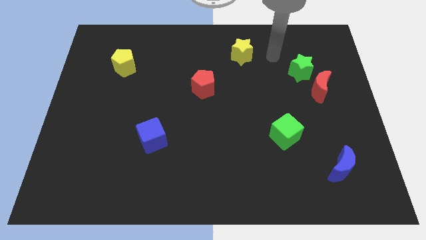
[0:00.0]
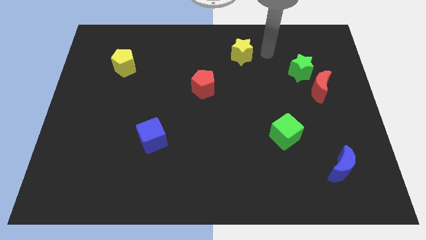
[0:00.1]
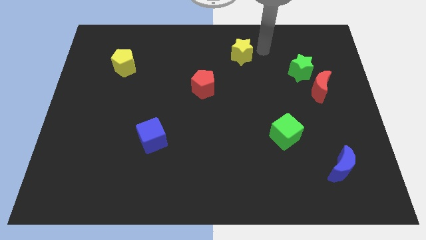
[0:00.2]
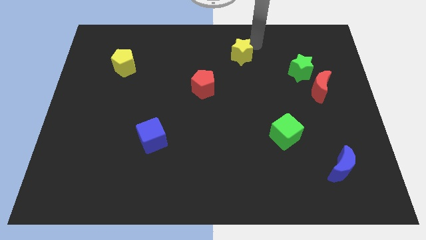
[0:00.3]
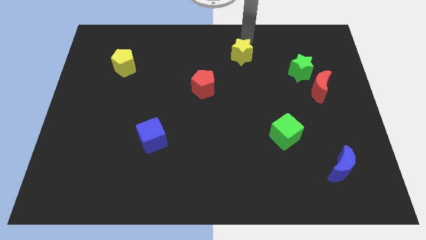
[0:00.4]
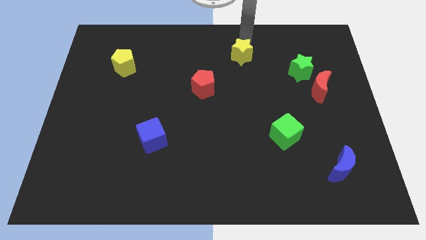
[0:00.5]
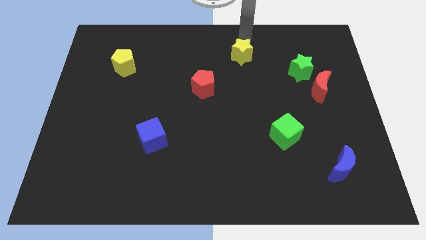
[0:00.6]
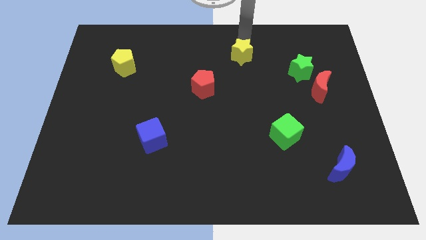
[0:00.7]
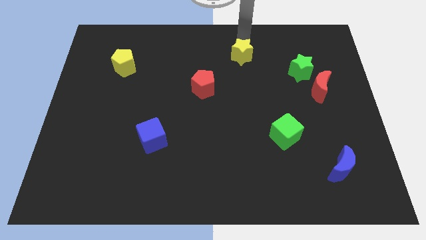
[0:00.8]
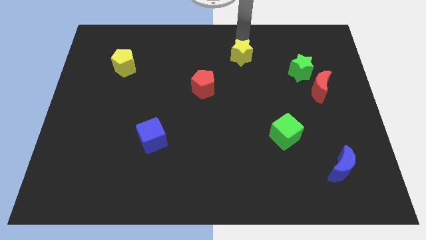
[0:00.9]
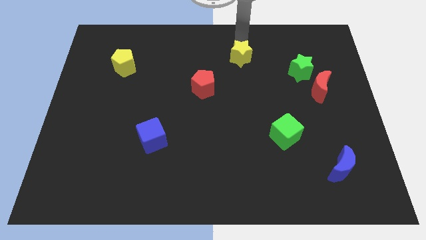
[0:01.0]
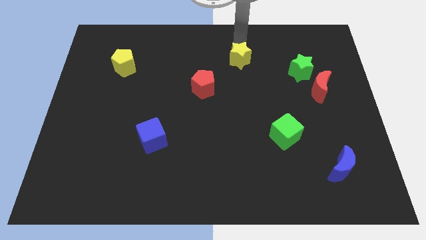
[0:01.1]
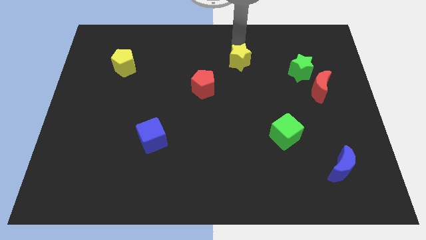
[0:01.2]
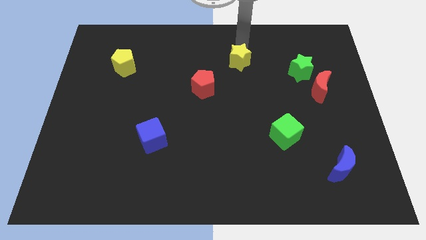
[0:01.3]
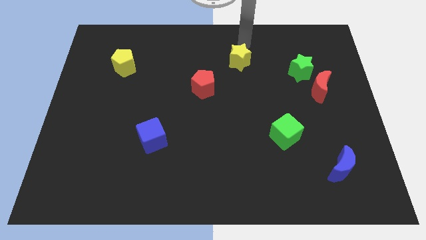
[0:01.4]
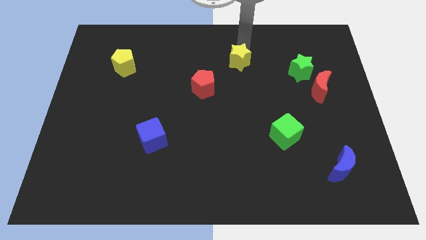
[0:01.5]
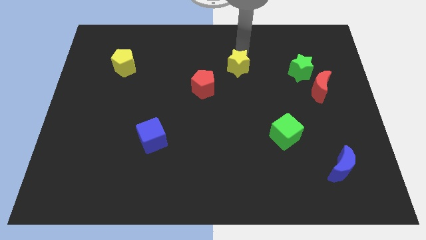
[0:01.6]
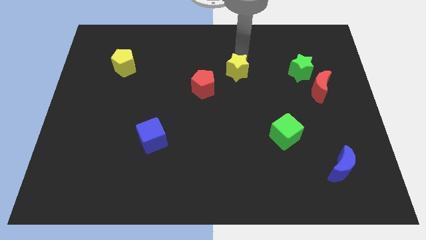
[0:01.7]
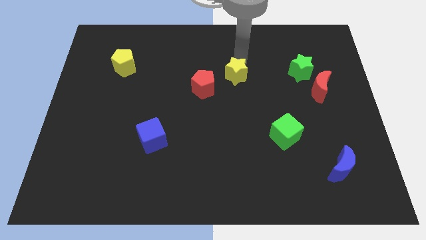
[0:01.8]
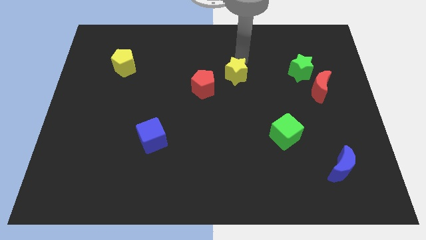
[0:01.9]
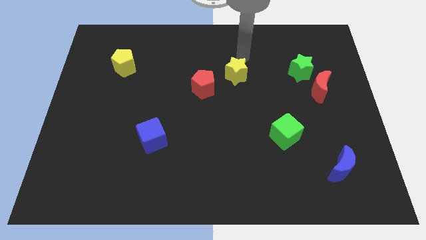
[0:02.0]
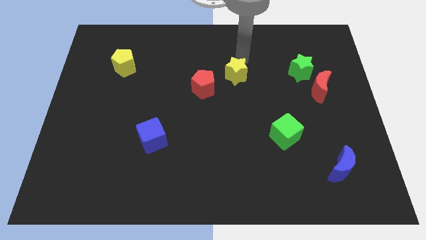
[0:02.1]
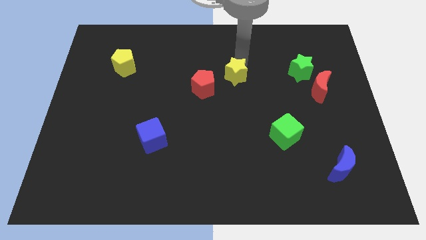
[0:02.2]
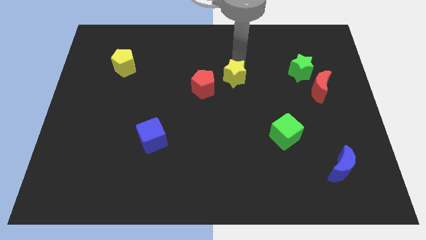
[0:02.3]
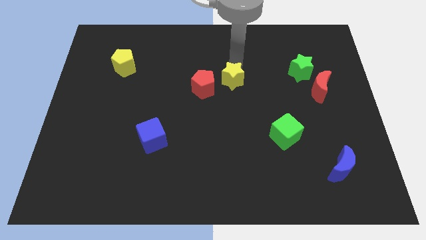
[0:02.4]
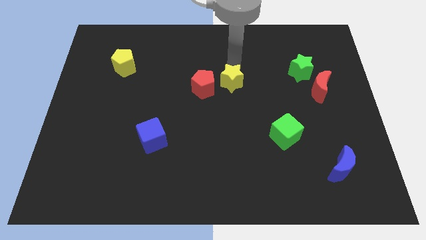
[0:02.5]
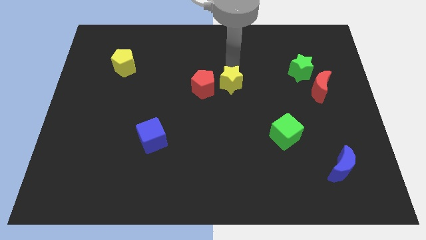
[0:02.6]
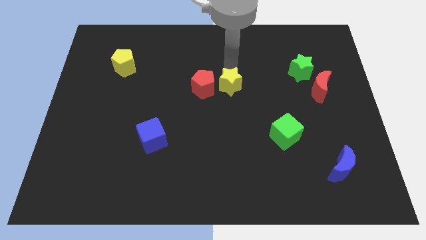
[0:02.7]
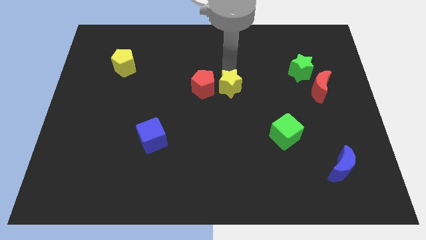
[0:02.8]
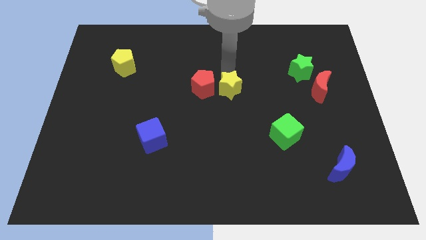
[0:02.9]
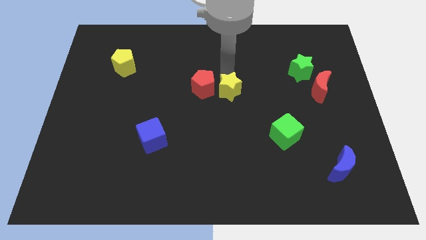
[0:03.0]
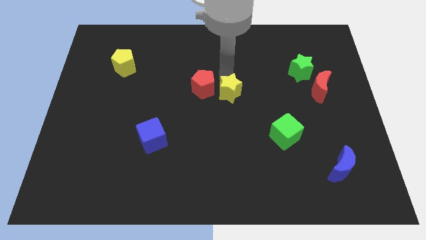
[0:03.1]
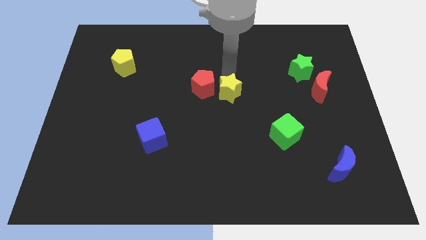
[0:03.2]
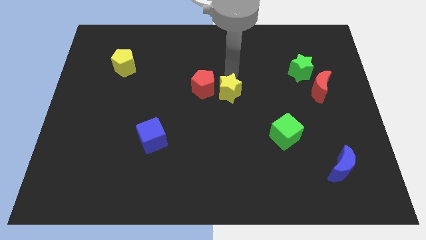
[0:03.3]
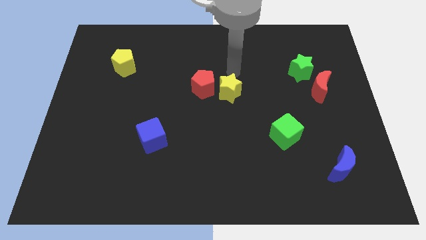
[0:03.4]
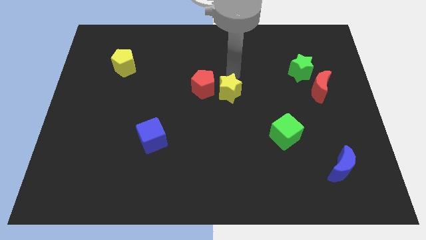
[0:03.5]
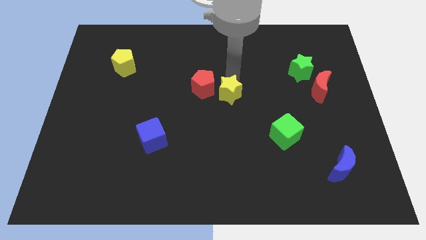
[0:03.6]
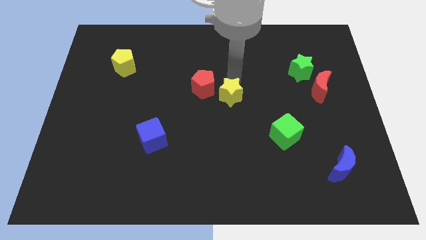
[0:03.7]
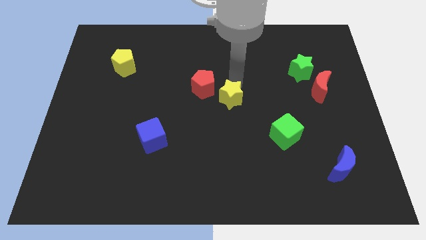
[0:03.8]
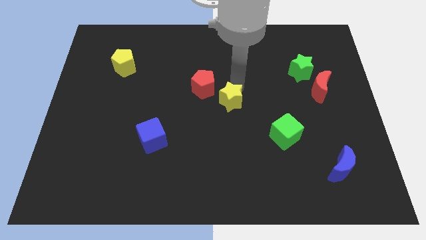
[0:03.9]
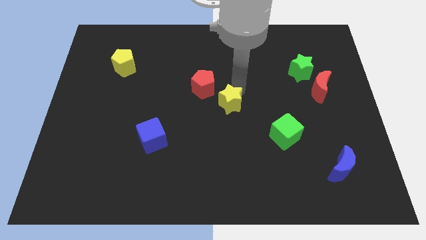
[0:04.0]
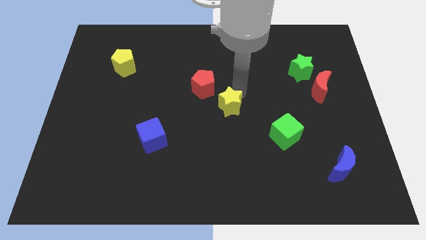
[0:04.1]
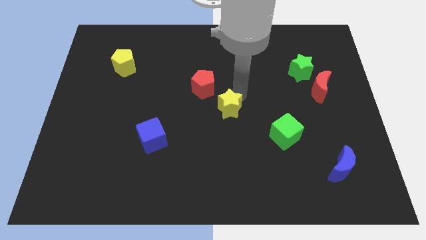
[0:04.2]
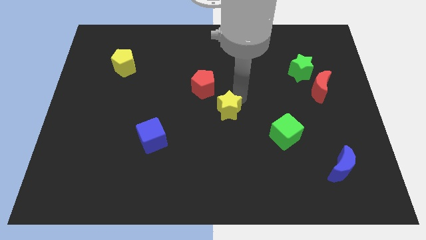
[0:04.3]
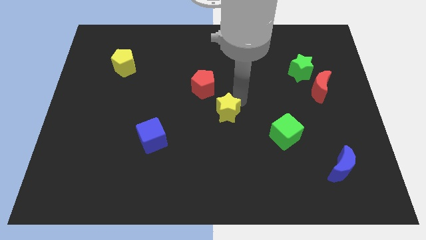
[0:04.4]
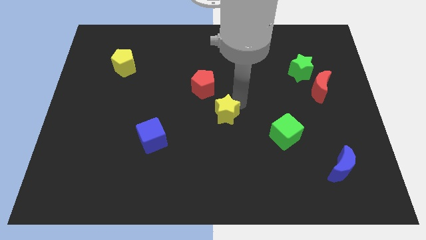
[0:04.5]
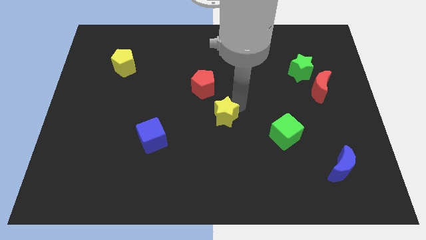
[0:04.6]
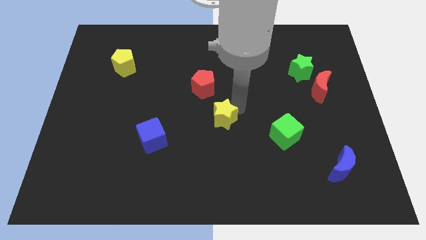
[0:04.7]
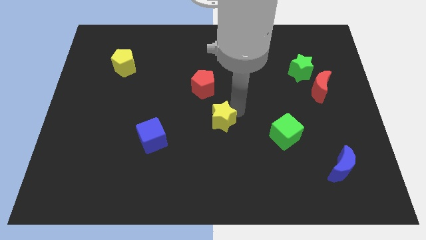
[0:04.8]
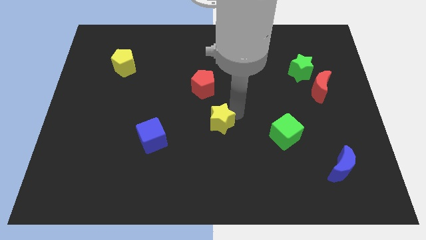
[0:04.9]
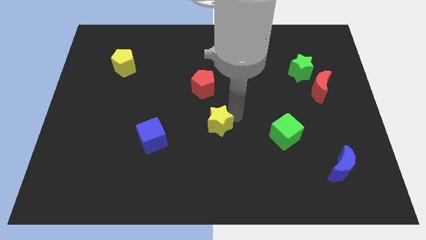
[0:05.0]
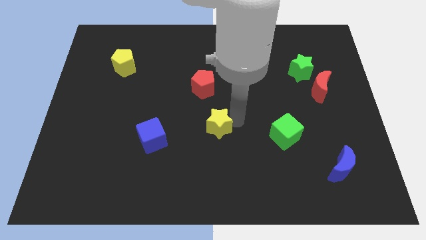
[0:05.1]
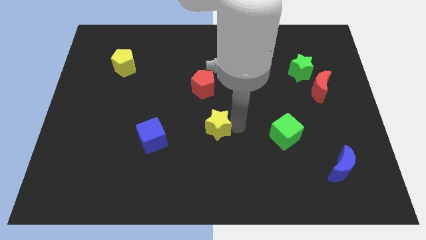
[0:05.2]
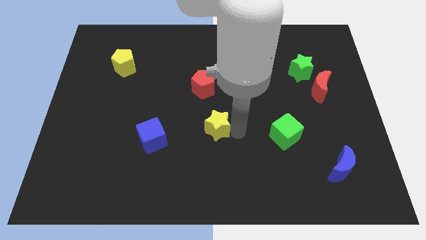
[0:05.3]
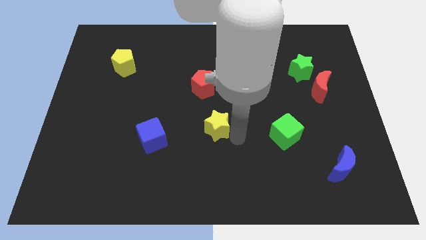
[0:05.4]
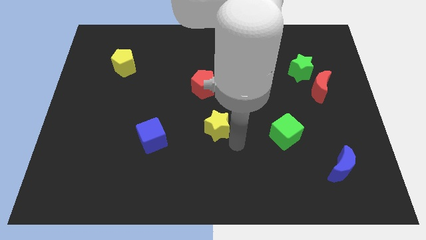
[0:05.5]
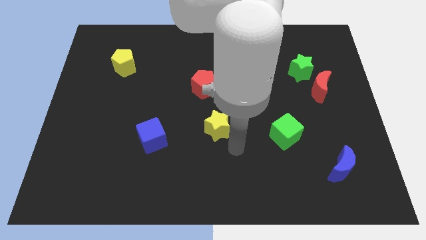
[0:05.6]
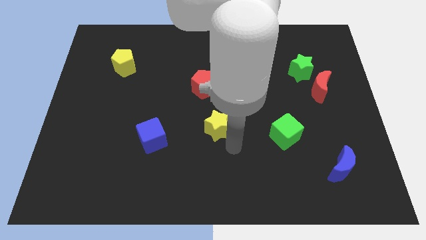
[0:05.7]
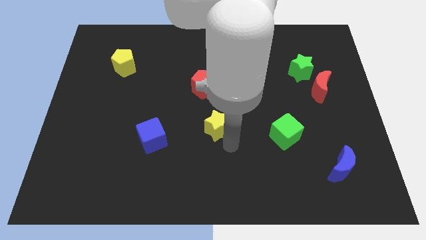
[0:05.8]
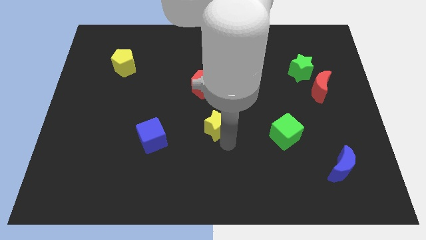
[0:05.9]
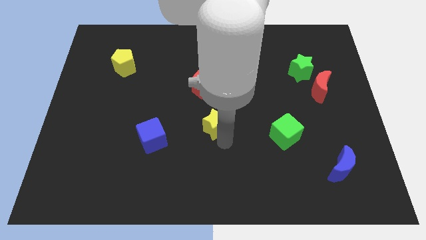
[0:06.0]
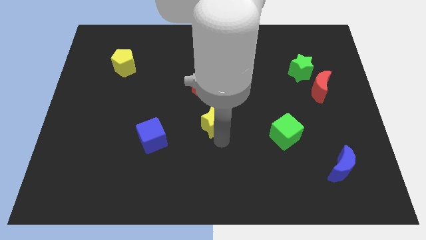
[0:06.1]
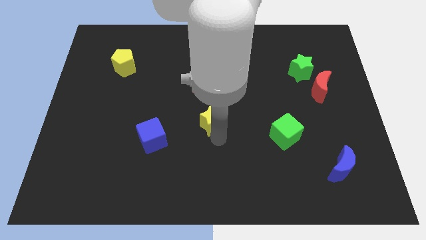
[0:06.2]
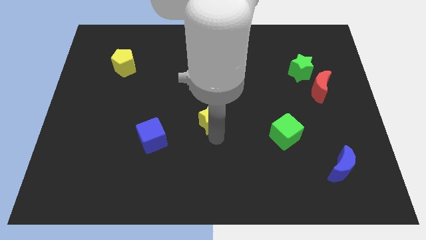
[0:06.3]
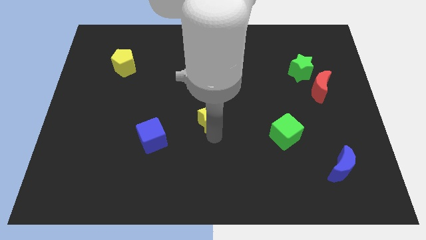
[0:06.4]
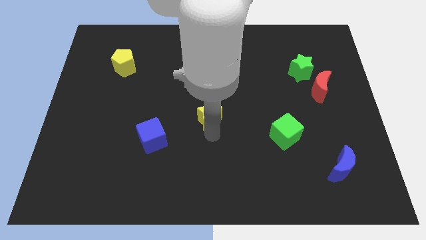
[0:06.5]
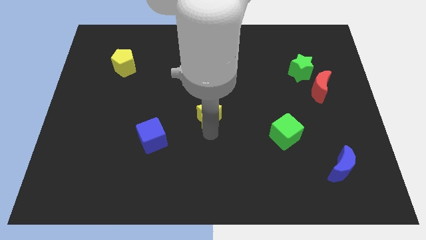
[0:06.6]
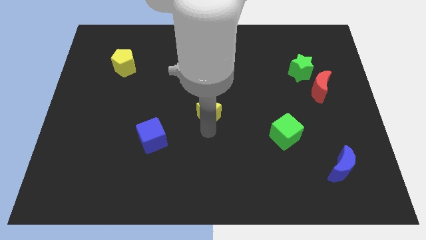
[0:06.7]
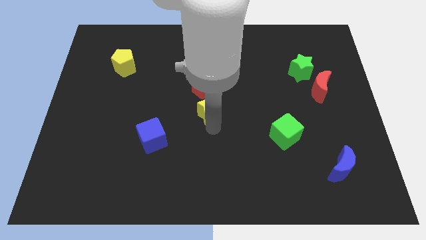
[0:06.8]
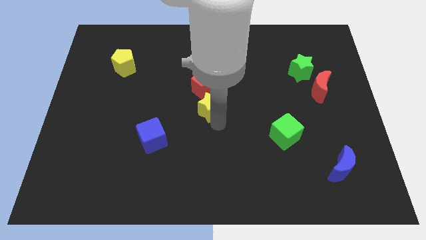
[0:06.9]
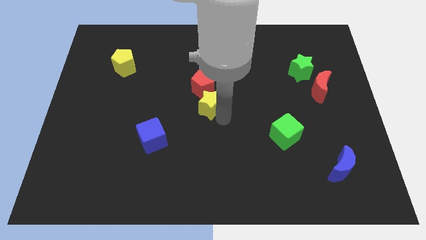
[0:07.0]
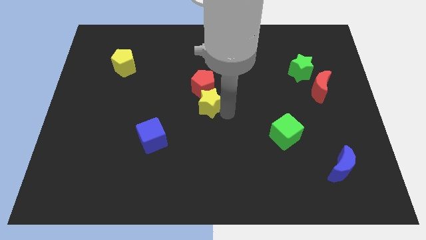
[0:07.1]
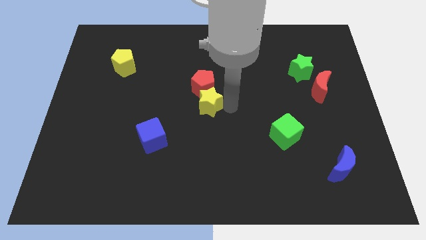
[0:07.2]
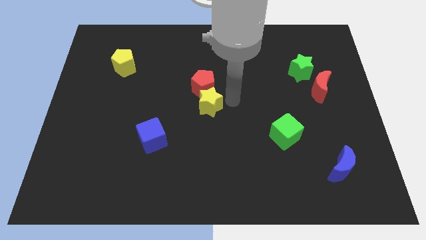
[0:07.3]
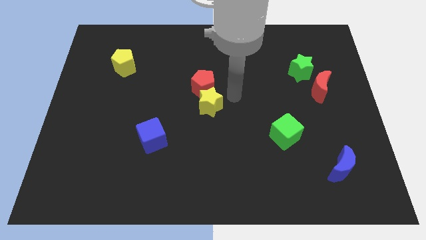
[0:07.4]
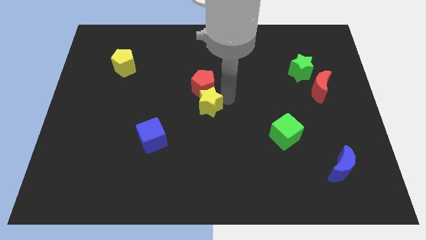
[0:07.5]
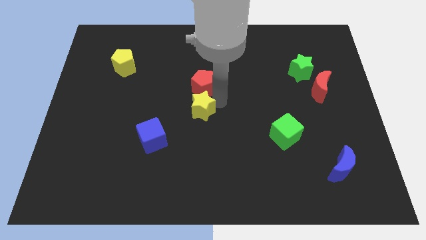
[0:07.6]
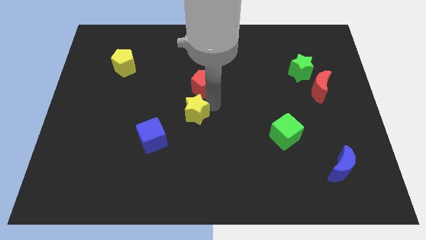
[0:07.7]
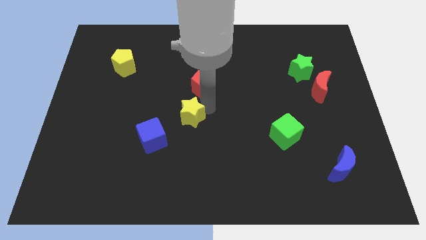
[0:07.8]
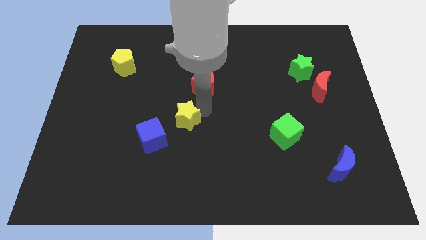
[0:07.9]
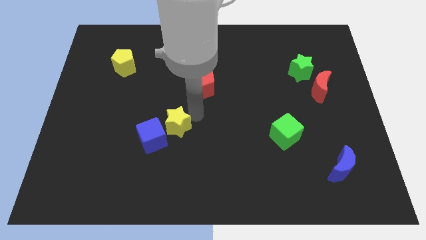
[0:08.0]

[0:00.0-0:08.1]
push the yellow star close to the blue cube
